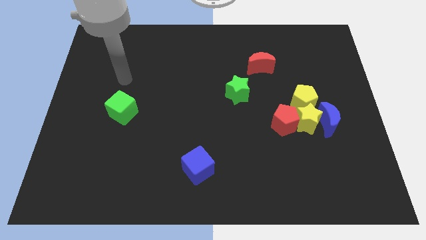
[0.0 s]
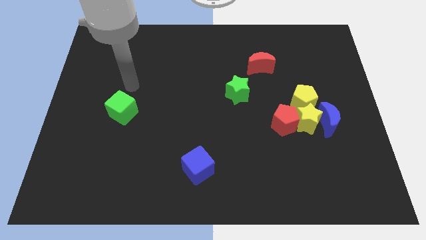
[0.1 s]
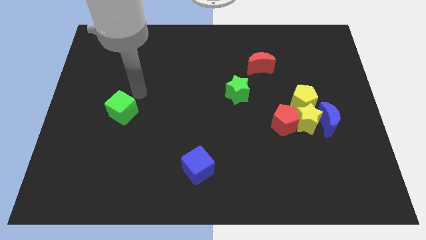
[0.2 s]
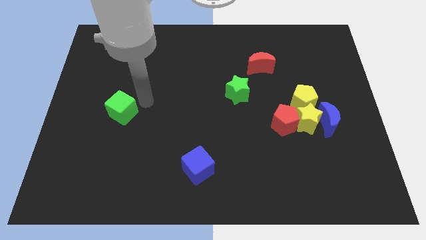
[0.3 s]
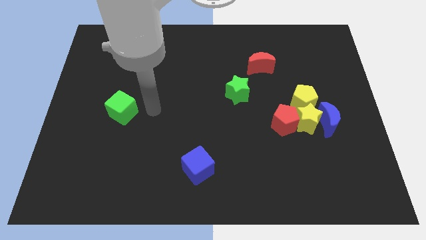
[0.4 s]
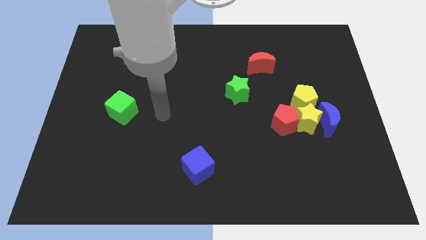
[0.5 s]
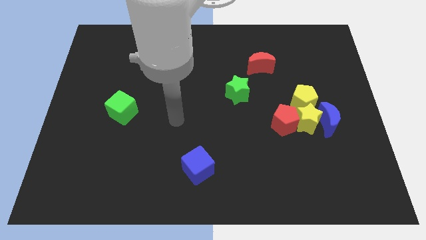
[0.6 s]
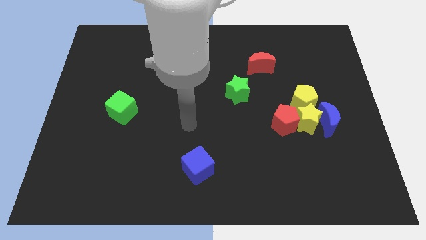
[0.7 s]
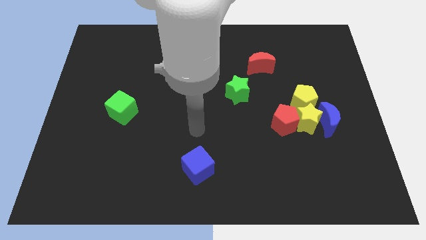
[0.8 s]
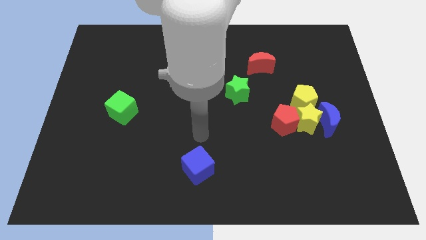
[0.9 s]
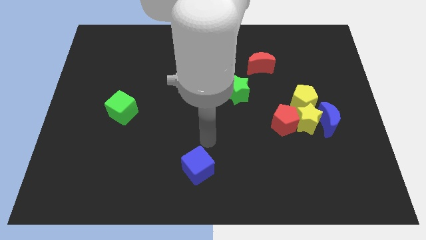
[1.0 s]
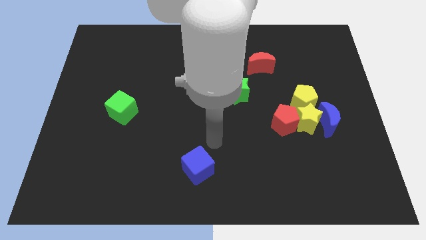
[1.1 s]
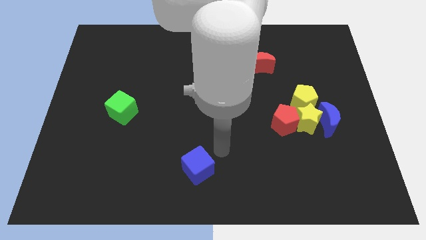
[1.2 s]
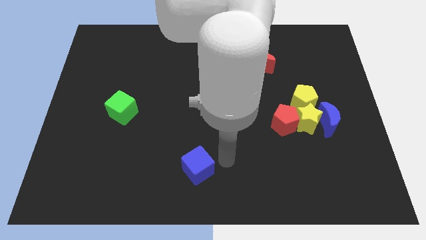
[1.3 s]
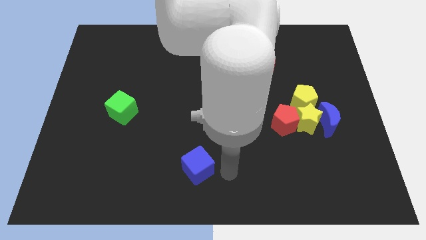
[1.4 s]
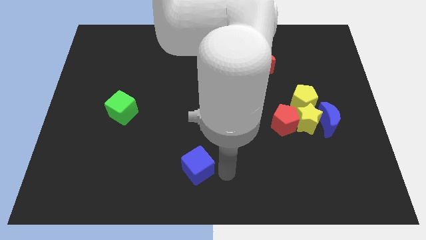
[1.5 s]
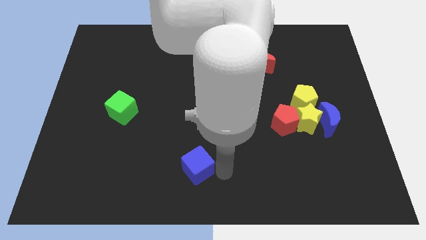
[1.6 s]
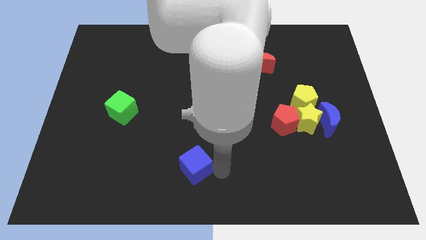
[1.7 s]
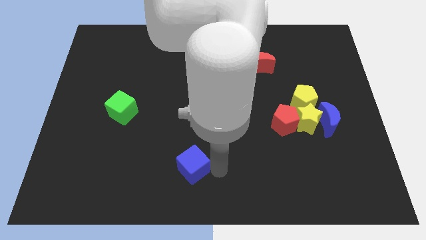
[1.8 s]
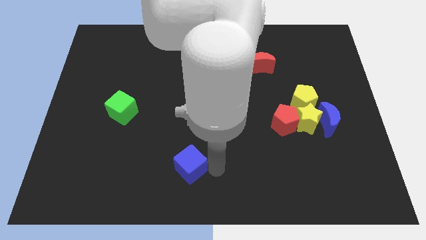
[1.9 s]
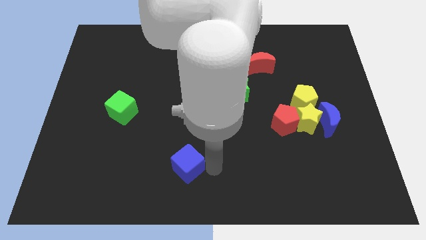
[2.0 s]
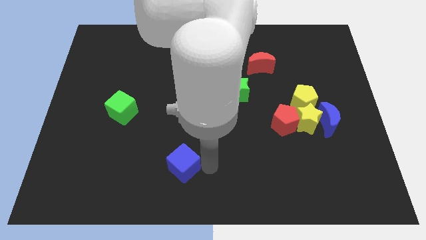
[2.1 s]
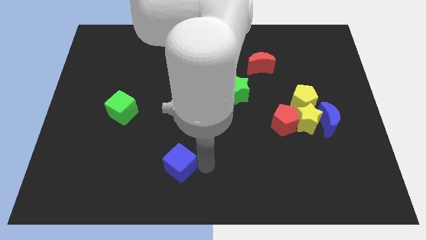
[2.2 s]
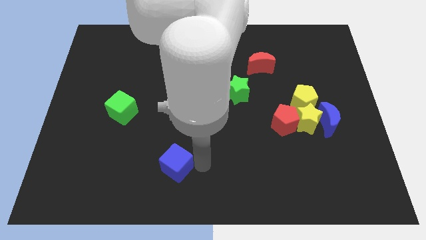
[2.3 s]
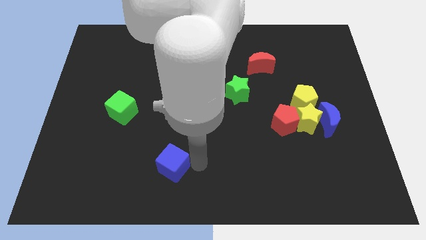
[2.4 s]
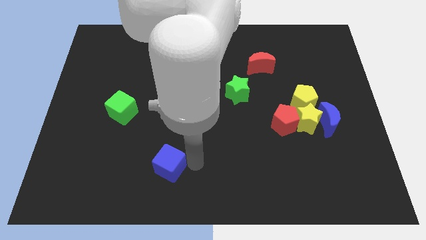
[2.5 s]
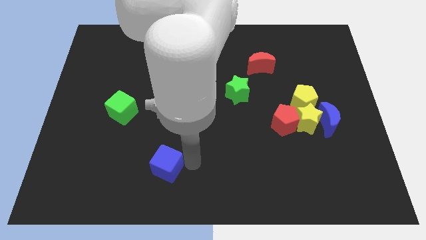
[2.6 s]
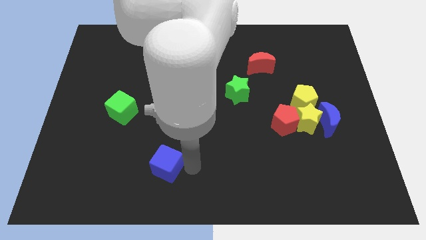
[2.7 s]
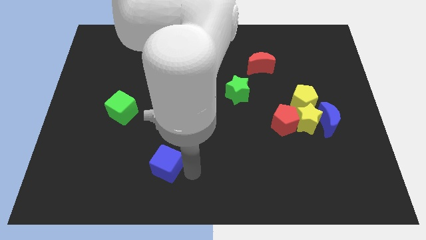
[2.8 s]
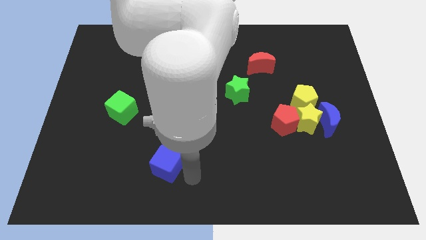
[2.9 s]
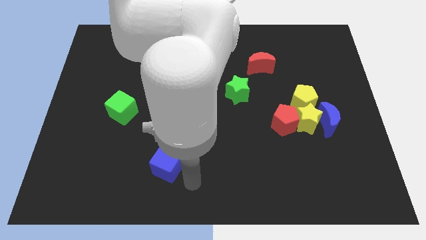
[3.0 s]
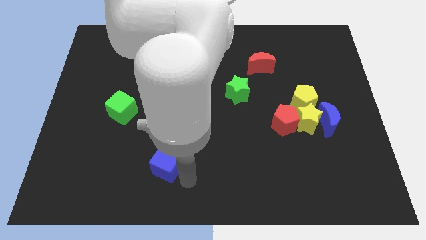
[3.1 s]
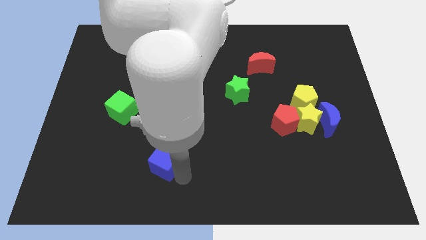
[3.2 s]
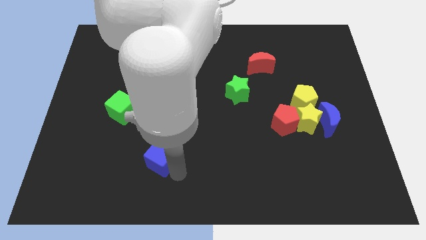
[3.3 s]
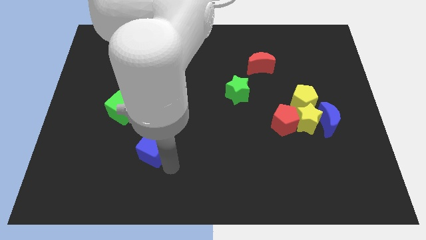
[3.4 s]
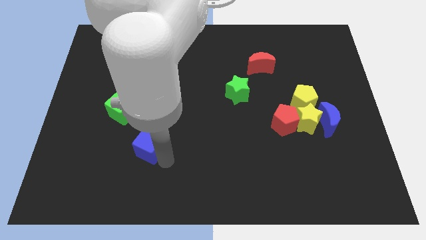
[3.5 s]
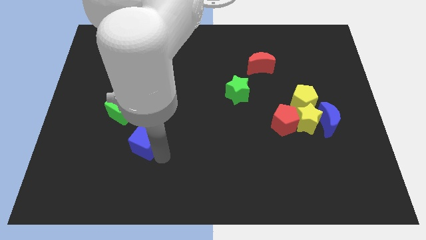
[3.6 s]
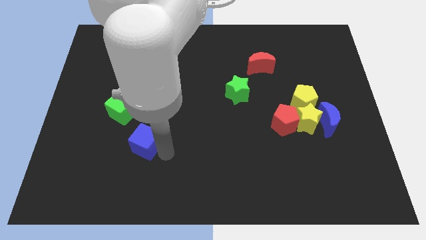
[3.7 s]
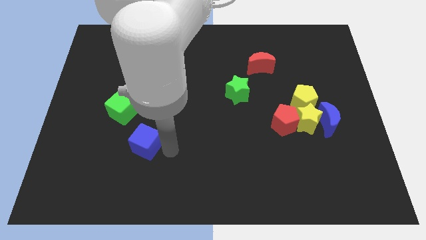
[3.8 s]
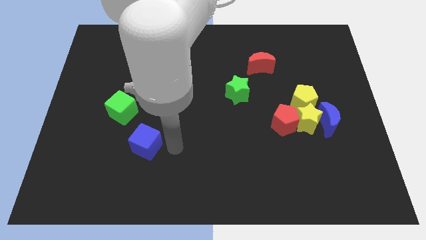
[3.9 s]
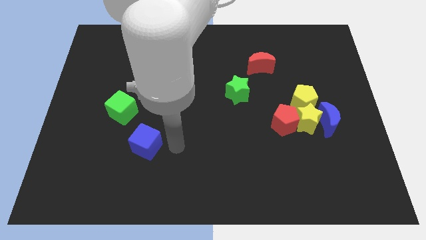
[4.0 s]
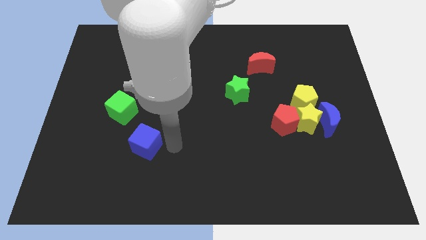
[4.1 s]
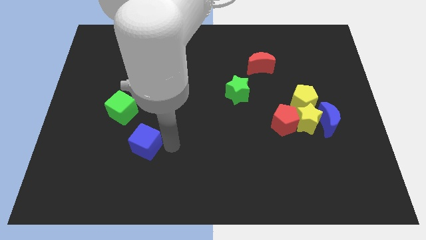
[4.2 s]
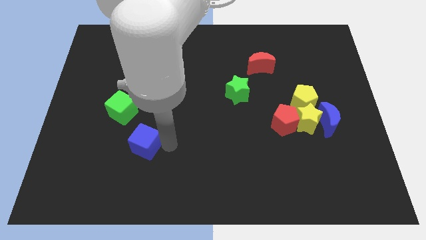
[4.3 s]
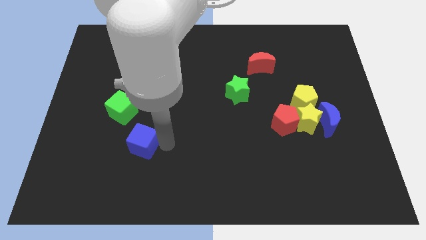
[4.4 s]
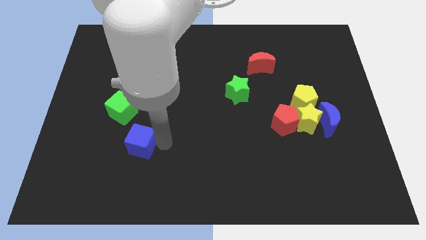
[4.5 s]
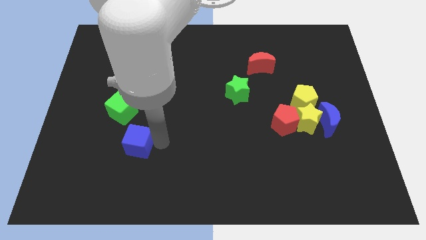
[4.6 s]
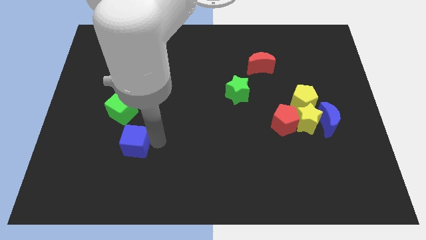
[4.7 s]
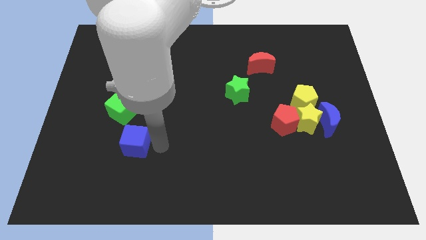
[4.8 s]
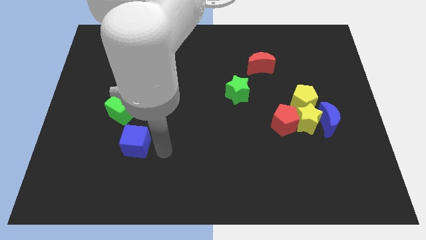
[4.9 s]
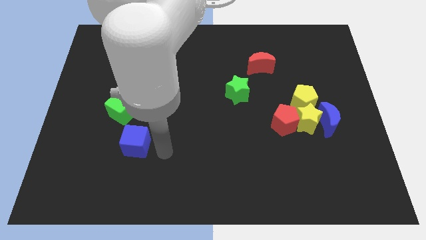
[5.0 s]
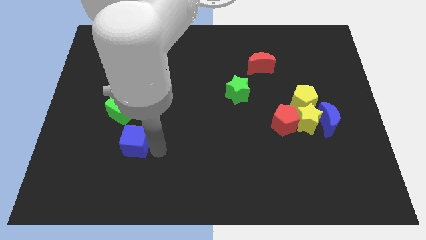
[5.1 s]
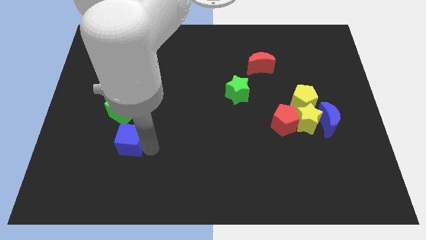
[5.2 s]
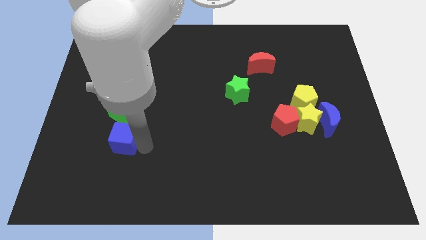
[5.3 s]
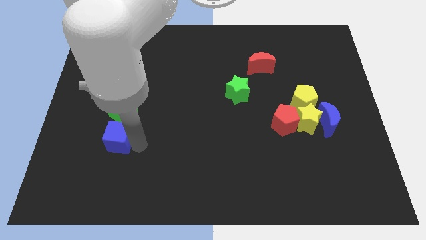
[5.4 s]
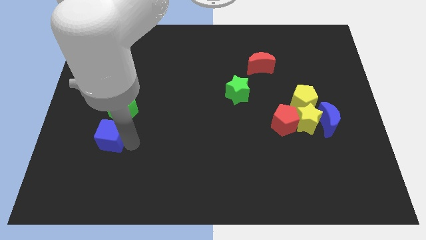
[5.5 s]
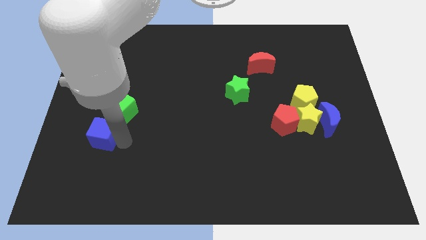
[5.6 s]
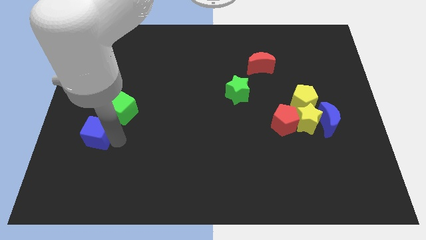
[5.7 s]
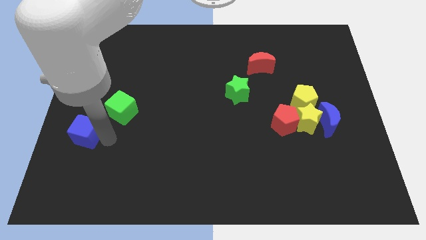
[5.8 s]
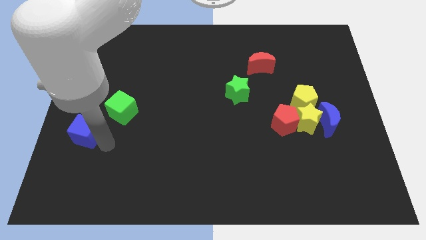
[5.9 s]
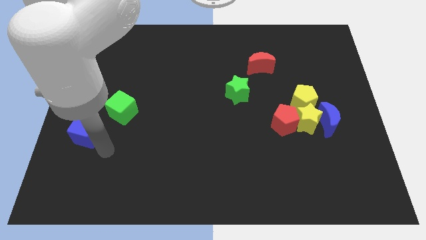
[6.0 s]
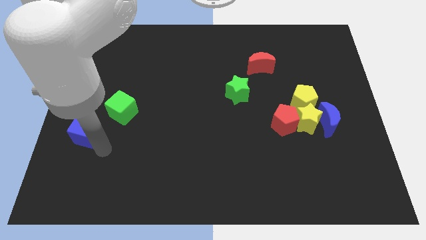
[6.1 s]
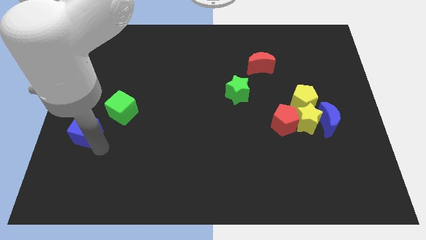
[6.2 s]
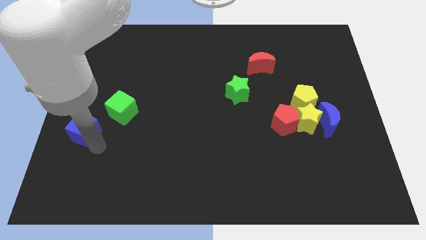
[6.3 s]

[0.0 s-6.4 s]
put the blue cube to the center left
